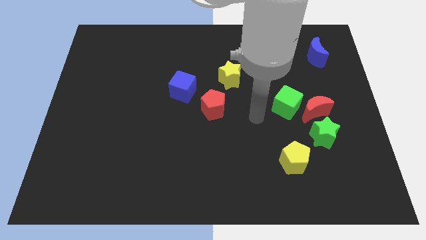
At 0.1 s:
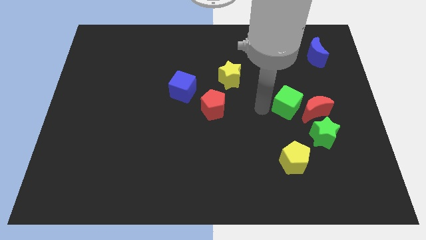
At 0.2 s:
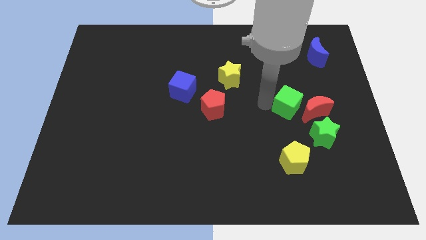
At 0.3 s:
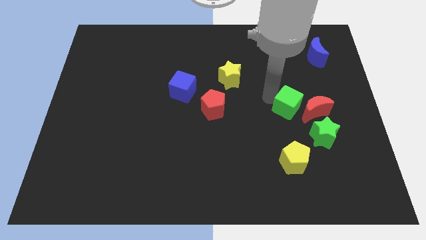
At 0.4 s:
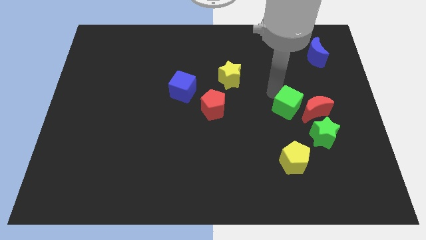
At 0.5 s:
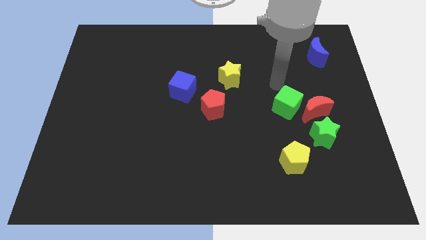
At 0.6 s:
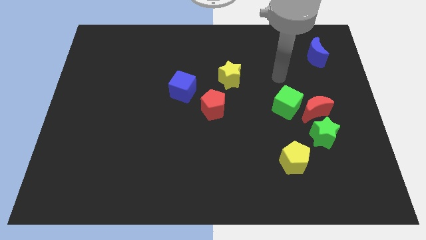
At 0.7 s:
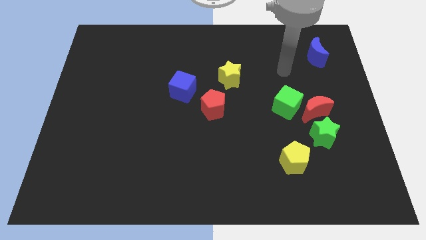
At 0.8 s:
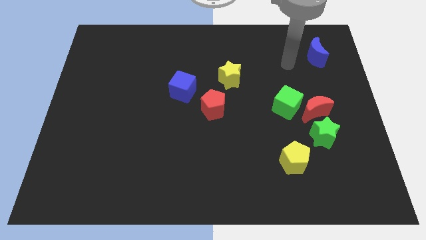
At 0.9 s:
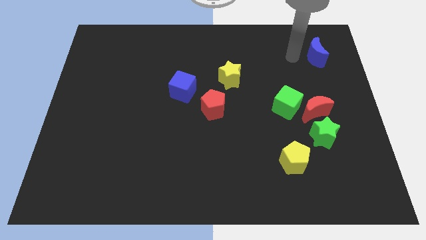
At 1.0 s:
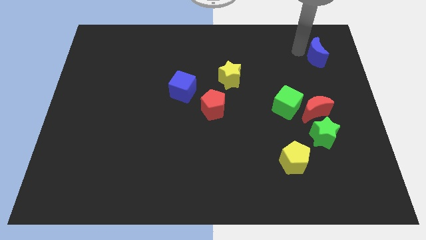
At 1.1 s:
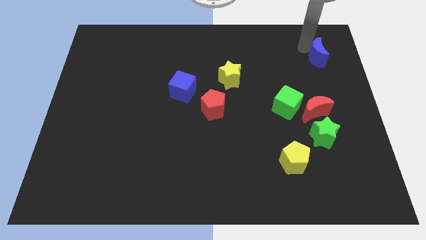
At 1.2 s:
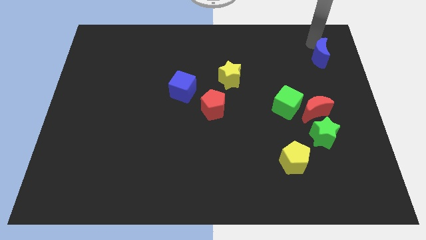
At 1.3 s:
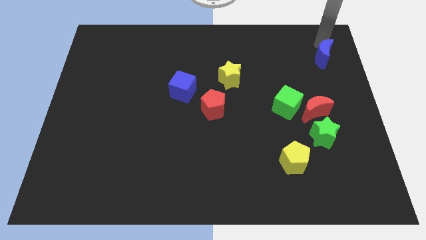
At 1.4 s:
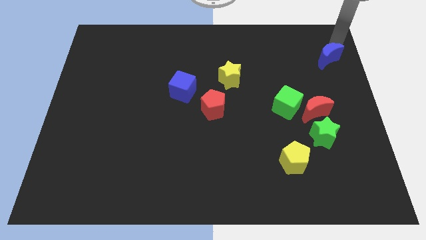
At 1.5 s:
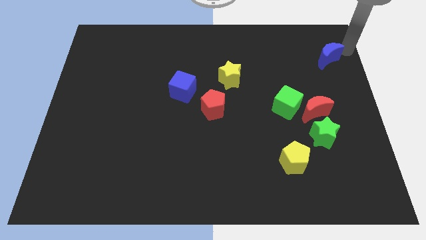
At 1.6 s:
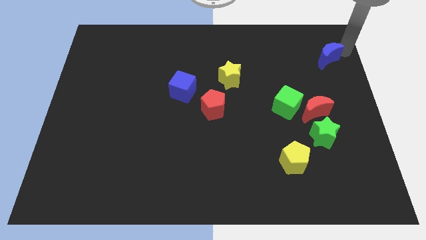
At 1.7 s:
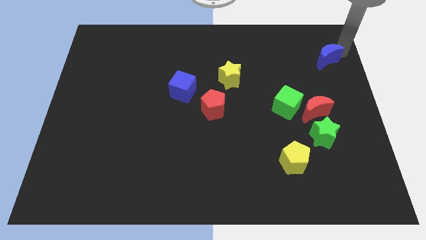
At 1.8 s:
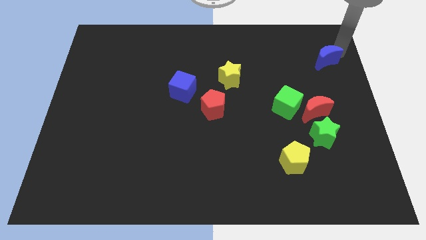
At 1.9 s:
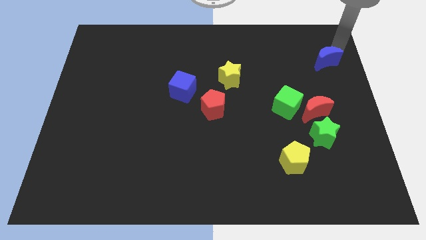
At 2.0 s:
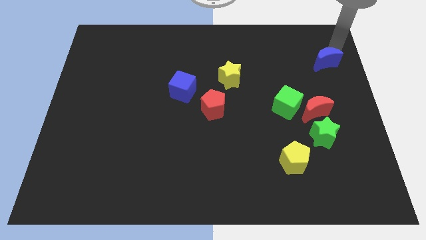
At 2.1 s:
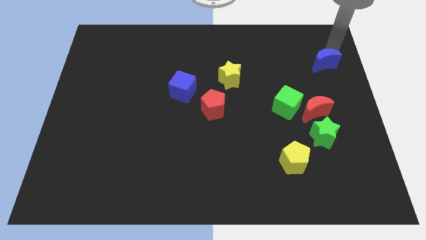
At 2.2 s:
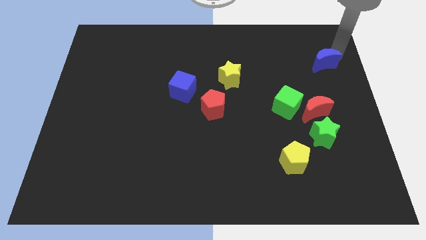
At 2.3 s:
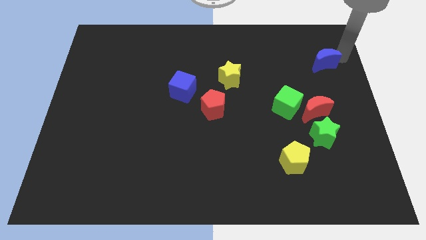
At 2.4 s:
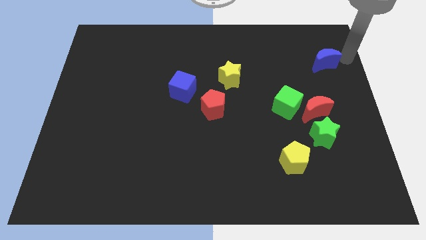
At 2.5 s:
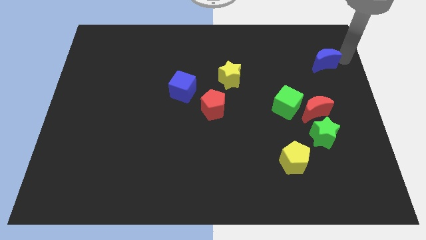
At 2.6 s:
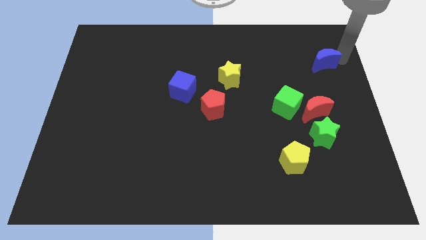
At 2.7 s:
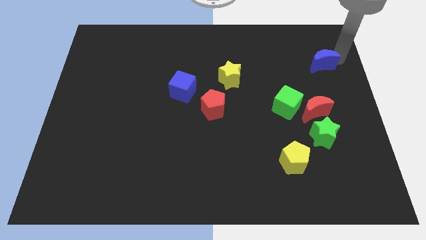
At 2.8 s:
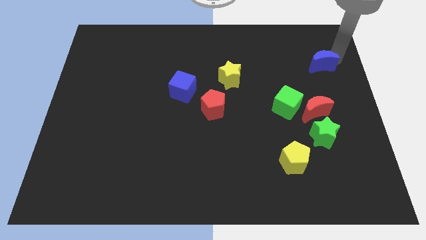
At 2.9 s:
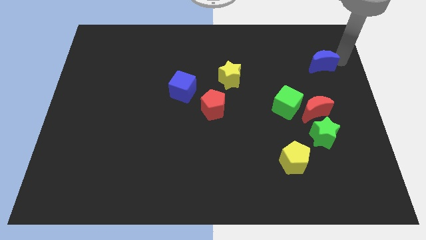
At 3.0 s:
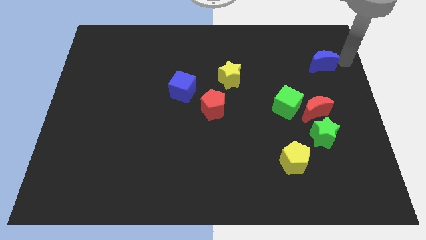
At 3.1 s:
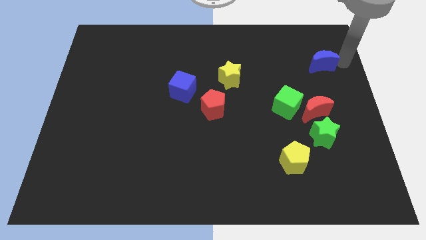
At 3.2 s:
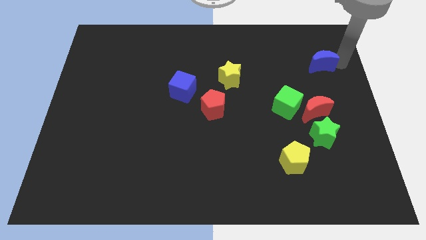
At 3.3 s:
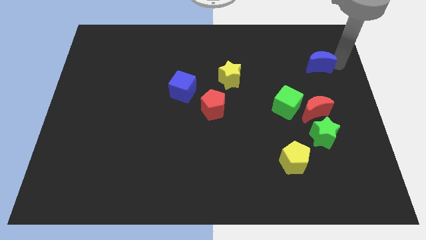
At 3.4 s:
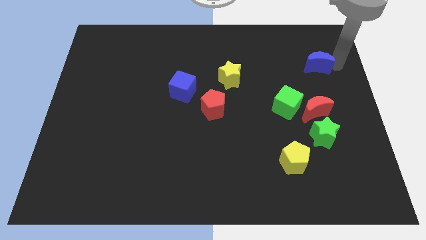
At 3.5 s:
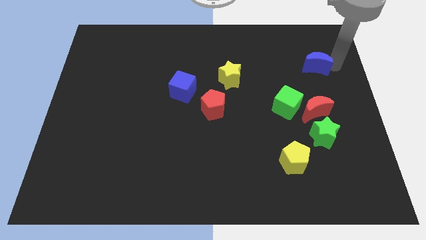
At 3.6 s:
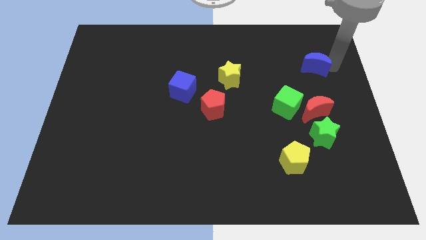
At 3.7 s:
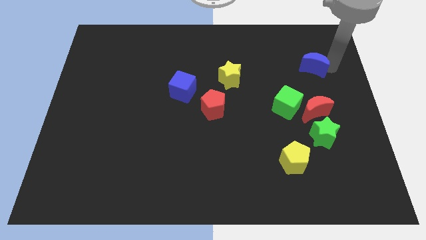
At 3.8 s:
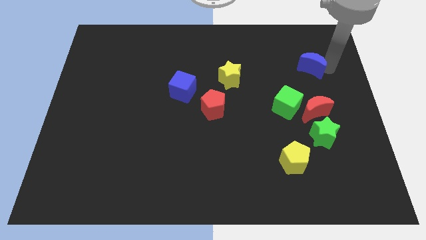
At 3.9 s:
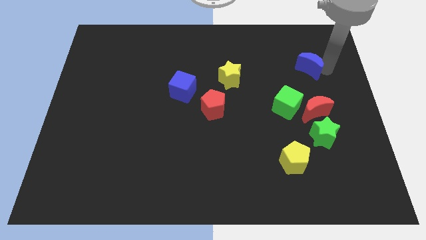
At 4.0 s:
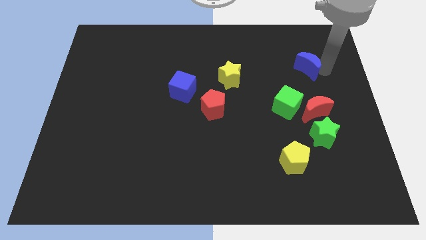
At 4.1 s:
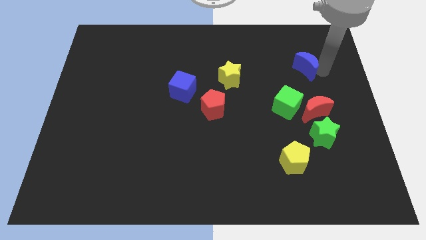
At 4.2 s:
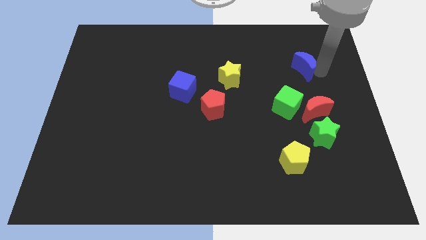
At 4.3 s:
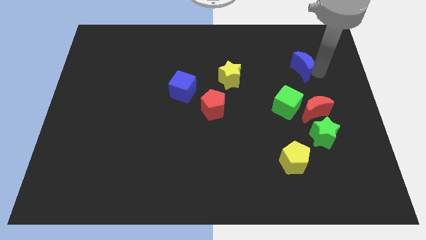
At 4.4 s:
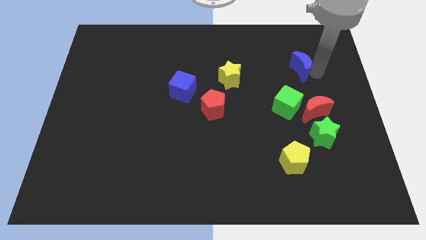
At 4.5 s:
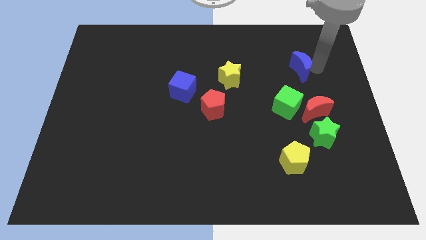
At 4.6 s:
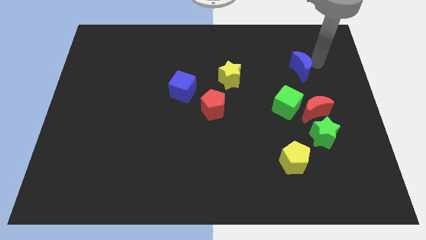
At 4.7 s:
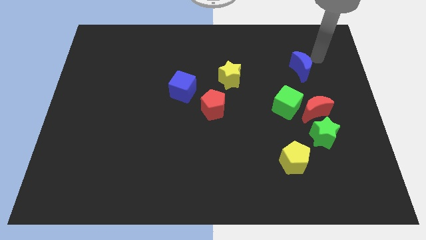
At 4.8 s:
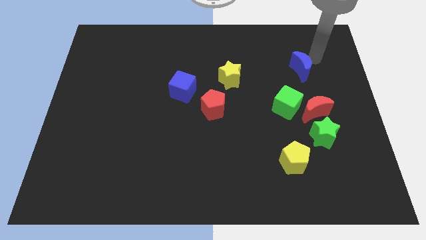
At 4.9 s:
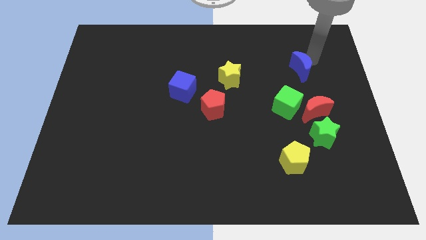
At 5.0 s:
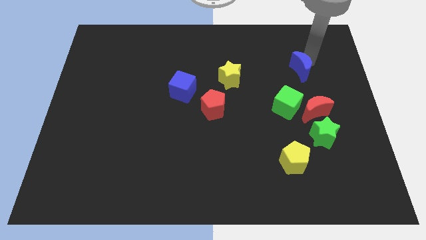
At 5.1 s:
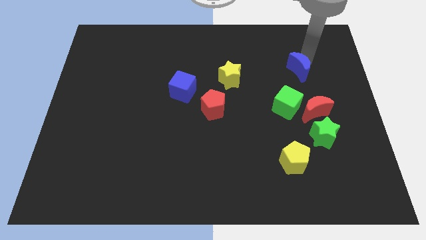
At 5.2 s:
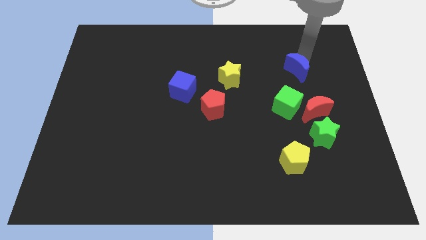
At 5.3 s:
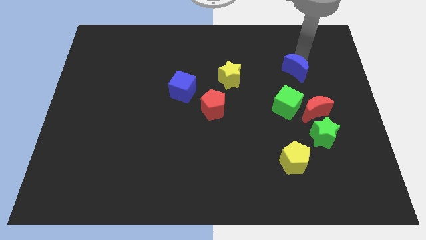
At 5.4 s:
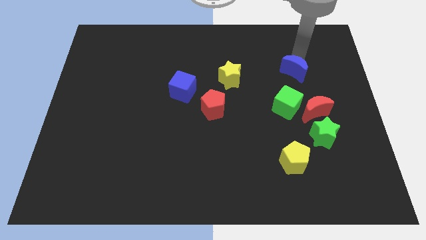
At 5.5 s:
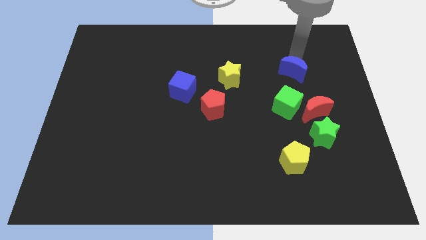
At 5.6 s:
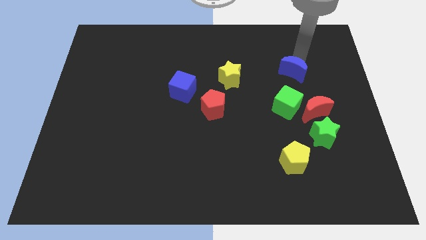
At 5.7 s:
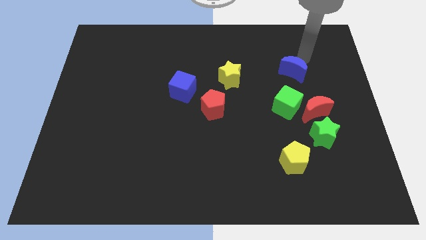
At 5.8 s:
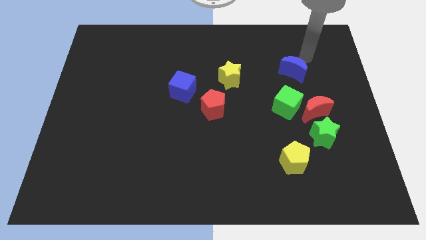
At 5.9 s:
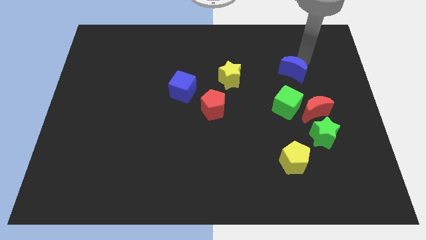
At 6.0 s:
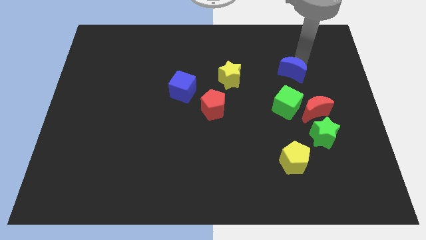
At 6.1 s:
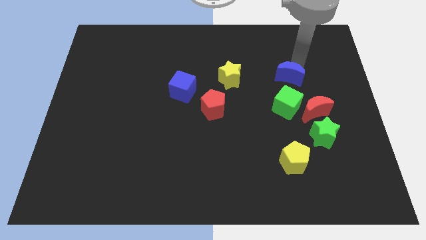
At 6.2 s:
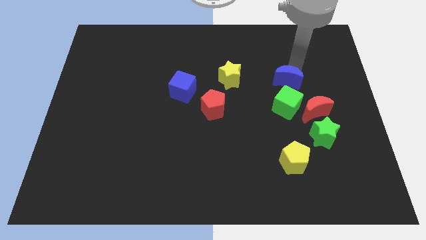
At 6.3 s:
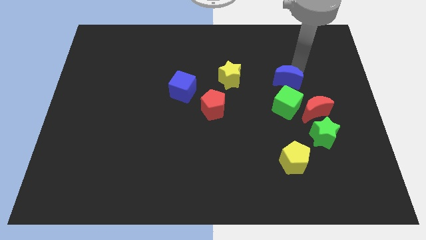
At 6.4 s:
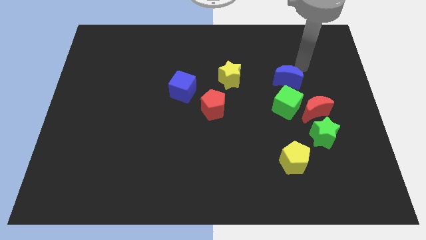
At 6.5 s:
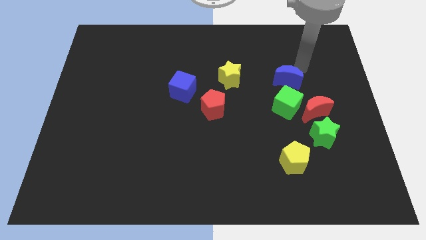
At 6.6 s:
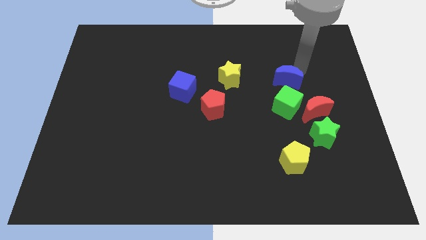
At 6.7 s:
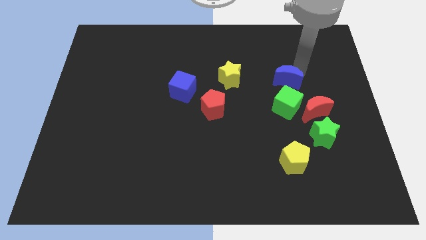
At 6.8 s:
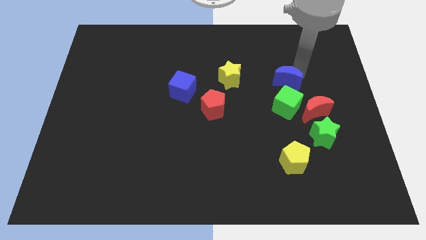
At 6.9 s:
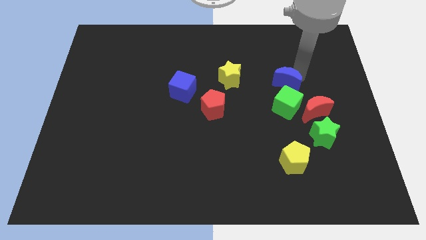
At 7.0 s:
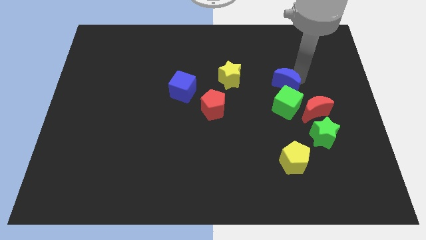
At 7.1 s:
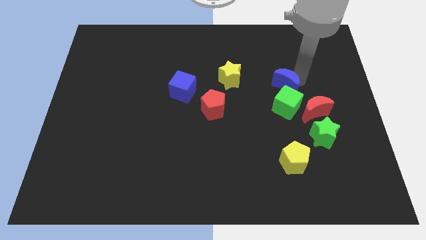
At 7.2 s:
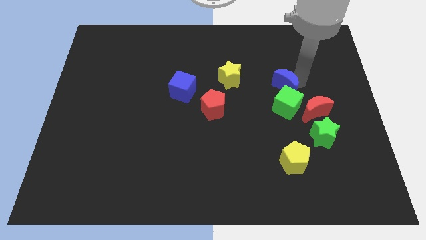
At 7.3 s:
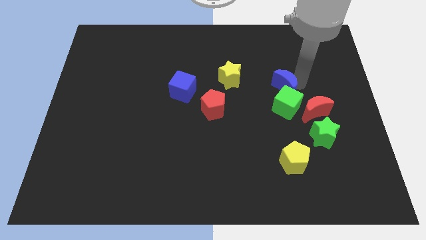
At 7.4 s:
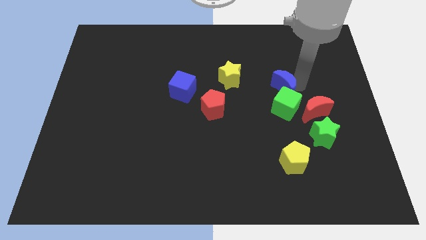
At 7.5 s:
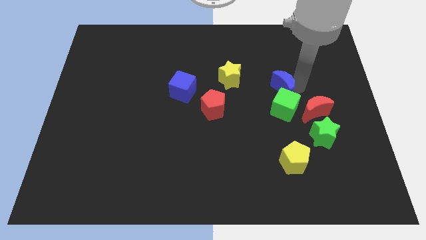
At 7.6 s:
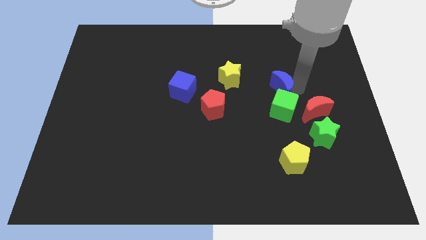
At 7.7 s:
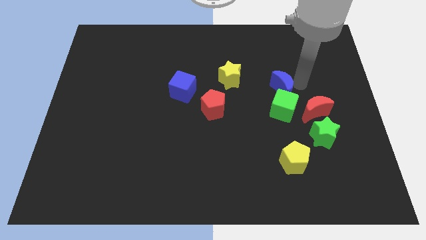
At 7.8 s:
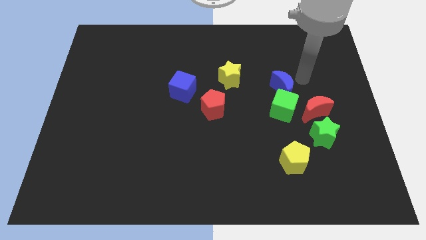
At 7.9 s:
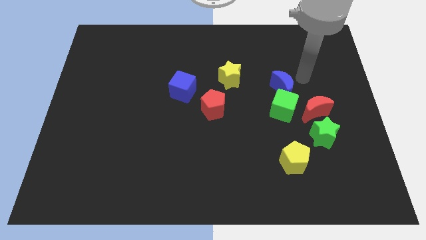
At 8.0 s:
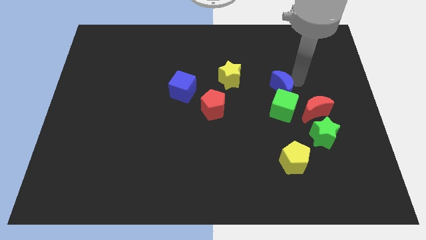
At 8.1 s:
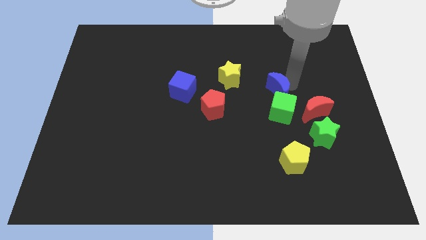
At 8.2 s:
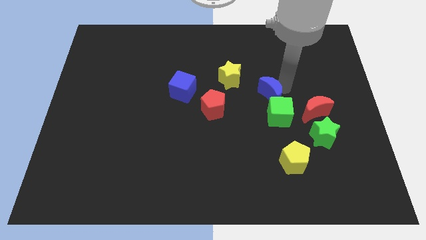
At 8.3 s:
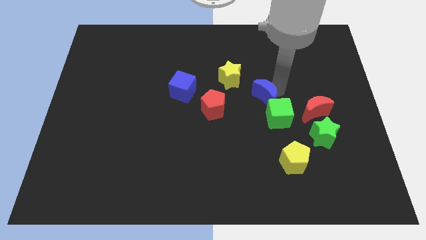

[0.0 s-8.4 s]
push the blue moon downwards and left
